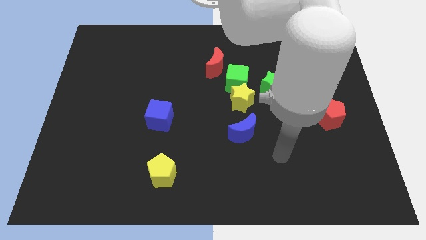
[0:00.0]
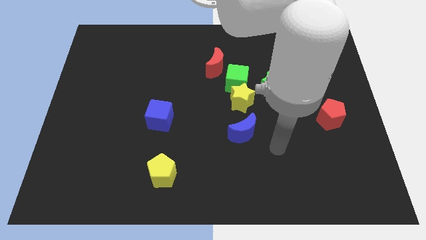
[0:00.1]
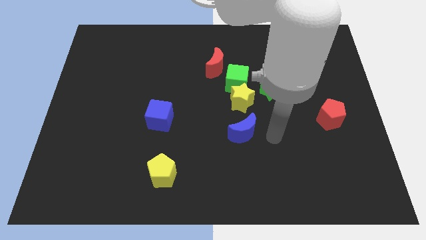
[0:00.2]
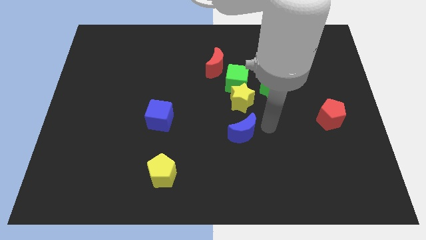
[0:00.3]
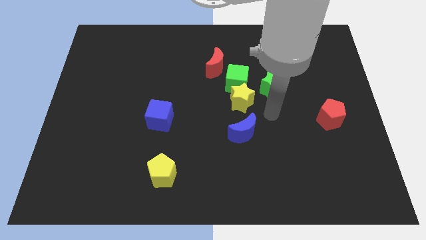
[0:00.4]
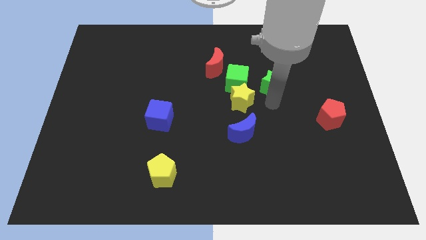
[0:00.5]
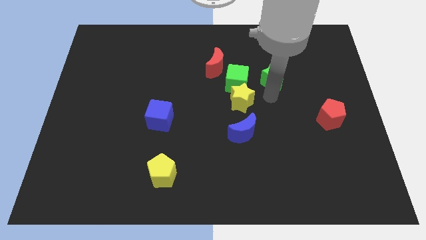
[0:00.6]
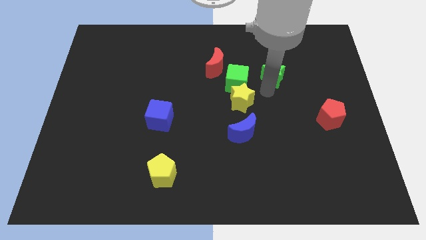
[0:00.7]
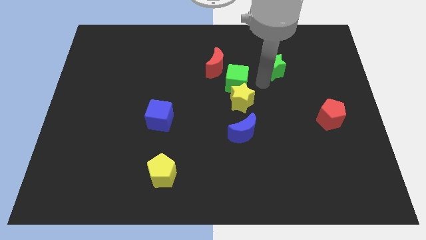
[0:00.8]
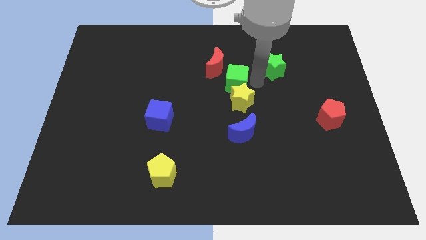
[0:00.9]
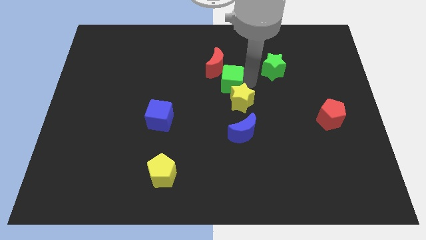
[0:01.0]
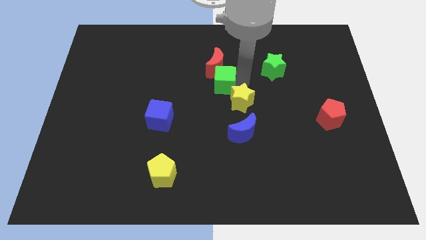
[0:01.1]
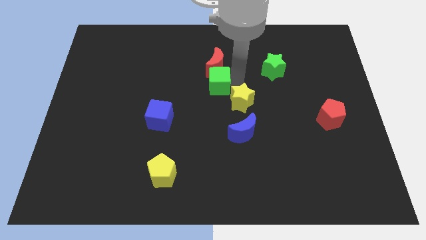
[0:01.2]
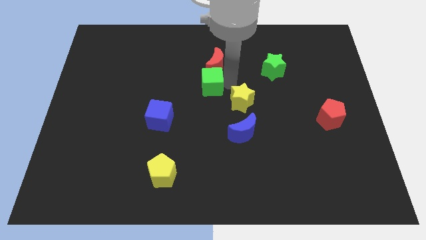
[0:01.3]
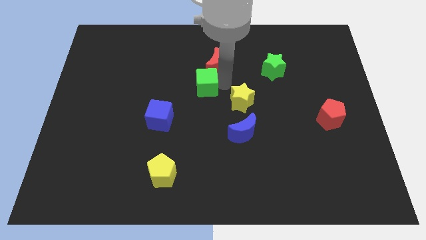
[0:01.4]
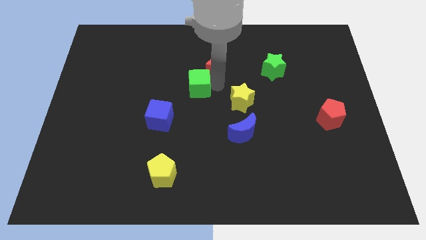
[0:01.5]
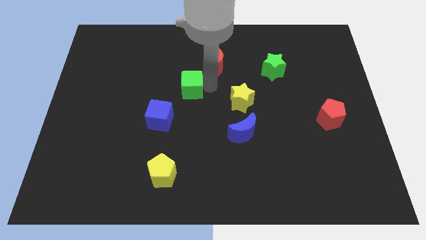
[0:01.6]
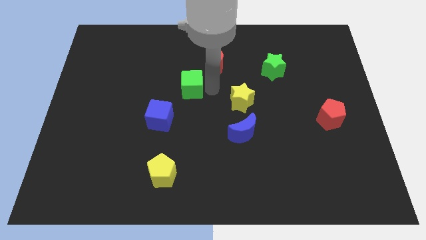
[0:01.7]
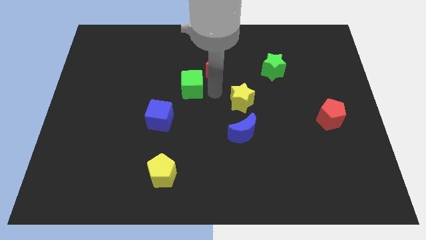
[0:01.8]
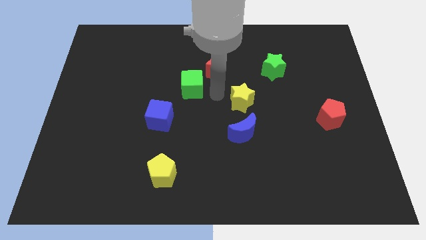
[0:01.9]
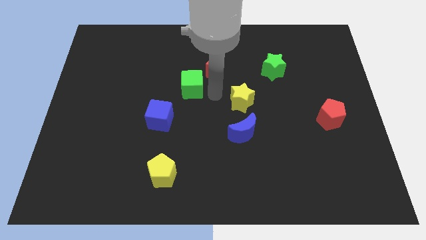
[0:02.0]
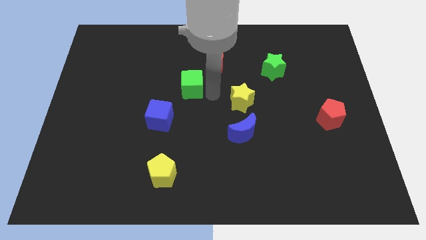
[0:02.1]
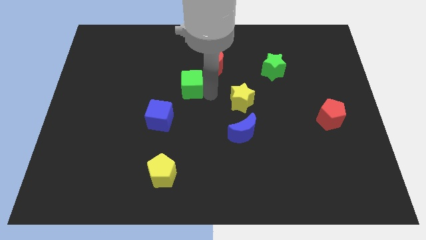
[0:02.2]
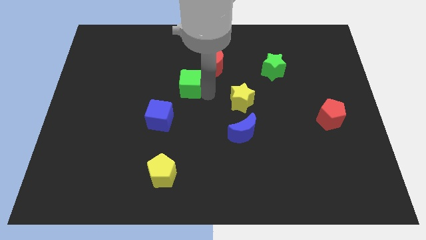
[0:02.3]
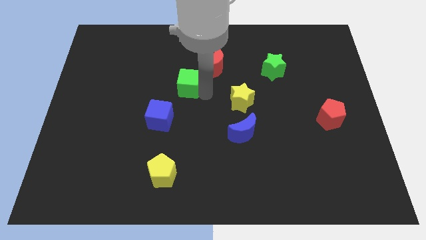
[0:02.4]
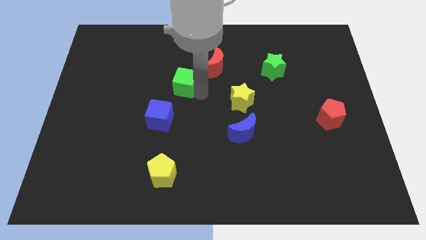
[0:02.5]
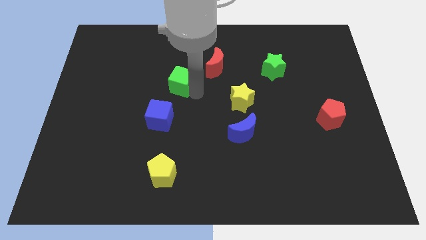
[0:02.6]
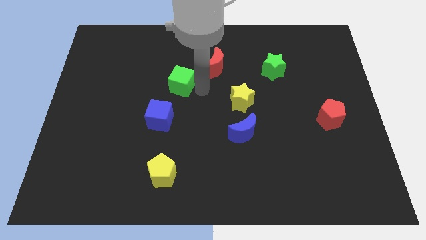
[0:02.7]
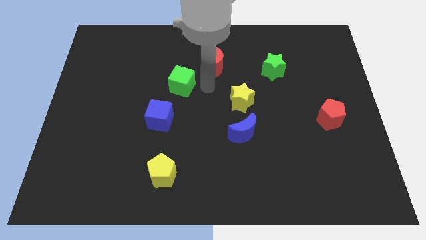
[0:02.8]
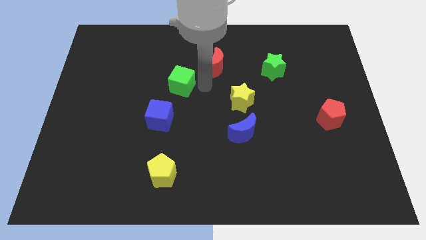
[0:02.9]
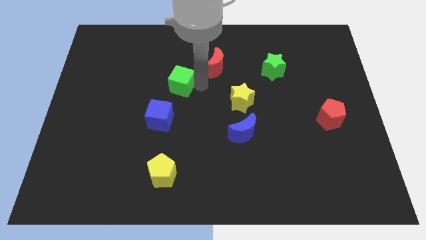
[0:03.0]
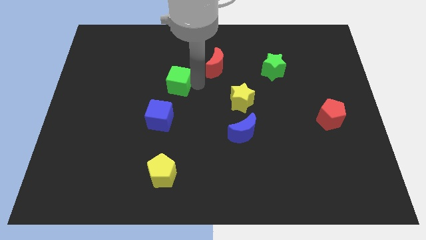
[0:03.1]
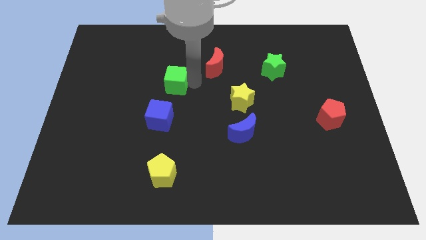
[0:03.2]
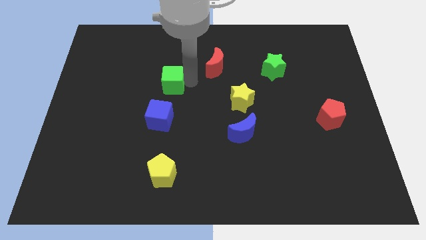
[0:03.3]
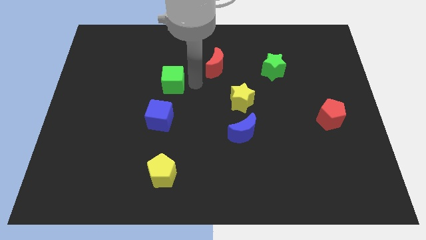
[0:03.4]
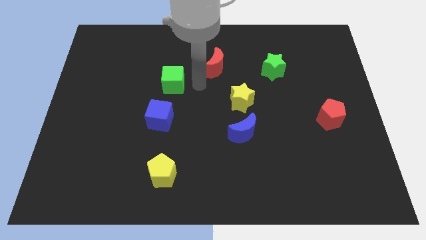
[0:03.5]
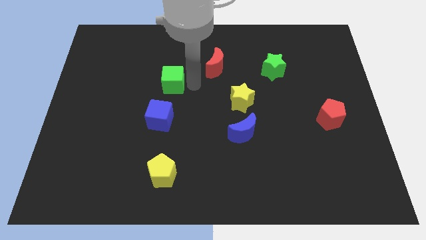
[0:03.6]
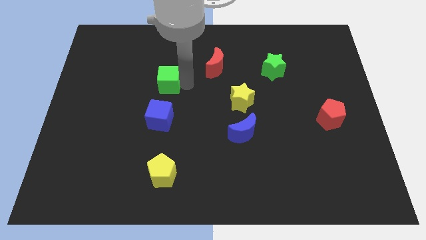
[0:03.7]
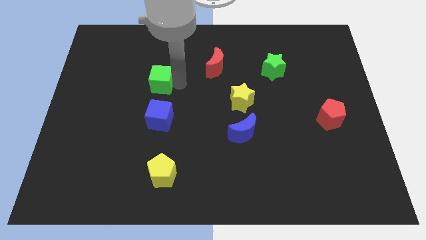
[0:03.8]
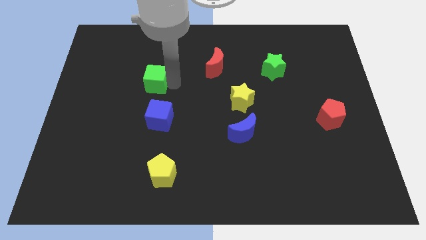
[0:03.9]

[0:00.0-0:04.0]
push the green cube left

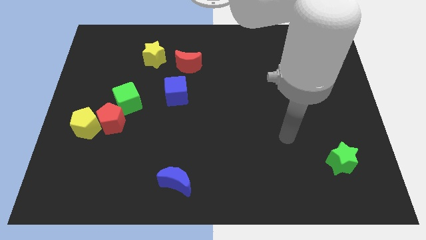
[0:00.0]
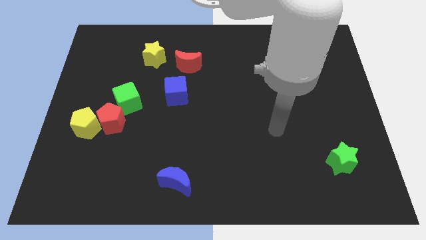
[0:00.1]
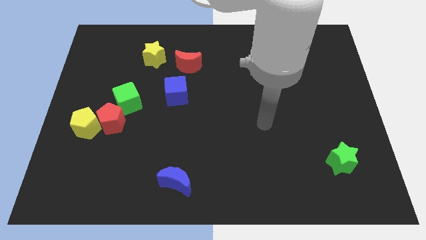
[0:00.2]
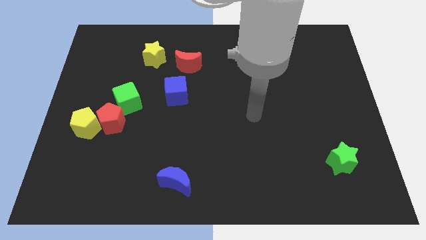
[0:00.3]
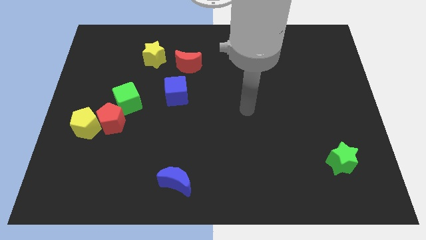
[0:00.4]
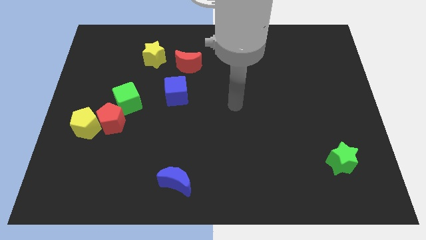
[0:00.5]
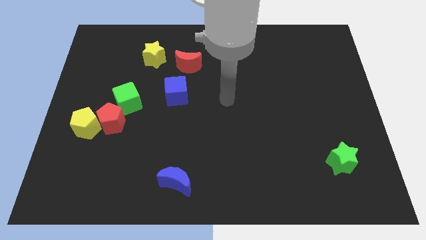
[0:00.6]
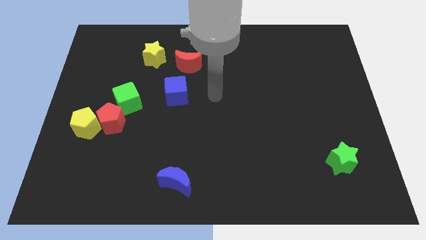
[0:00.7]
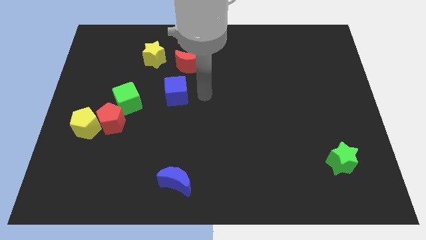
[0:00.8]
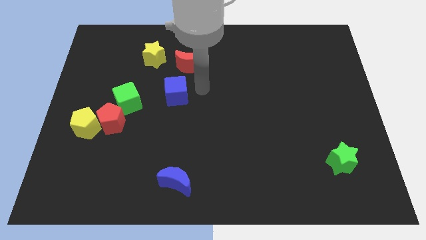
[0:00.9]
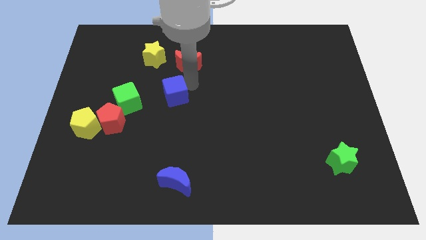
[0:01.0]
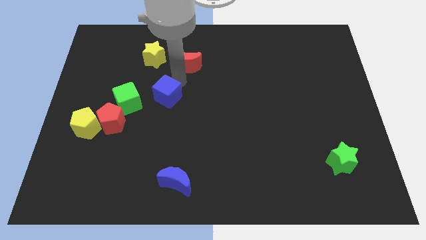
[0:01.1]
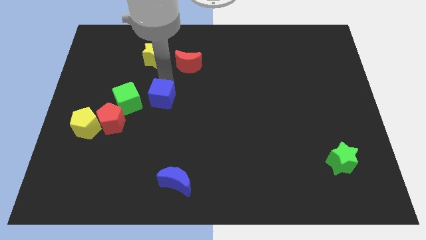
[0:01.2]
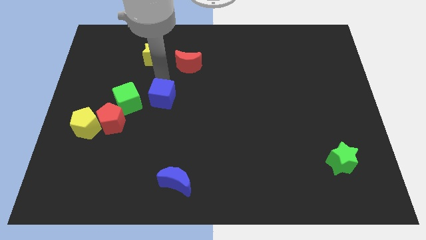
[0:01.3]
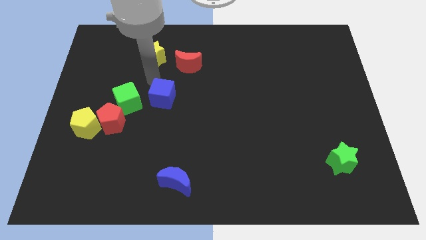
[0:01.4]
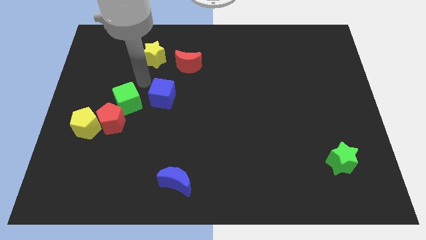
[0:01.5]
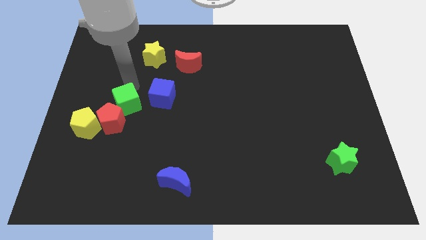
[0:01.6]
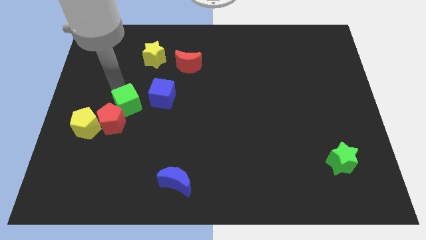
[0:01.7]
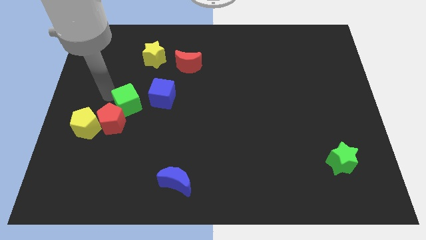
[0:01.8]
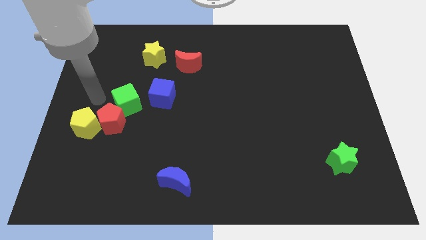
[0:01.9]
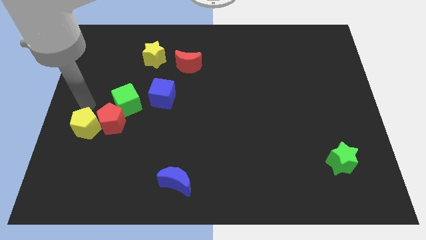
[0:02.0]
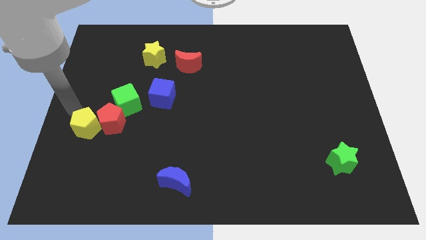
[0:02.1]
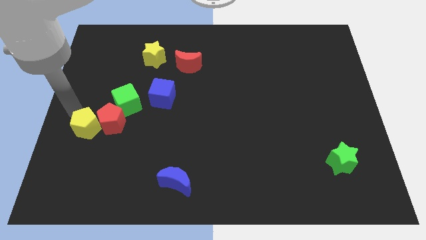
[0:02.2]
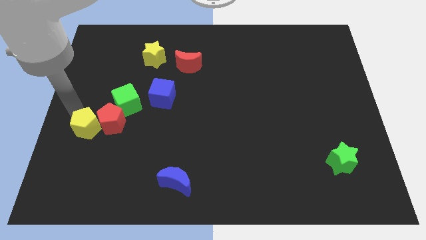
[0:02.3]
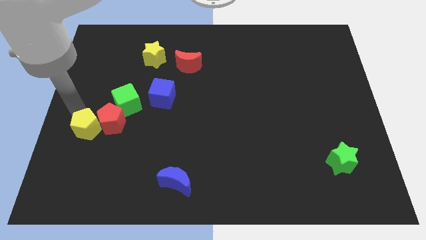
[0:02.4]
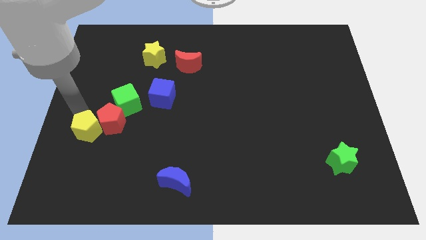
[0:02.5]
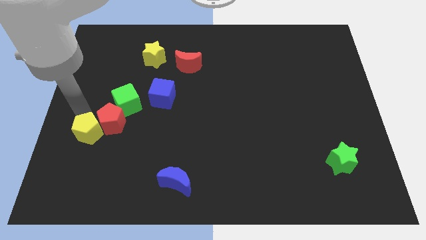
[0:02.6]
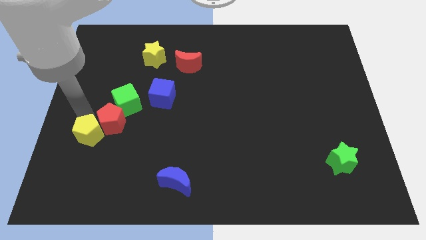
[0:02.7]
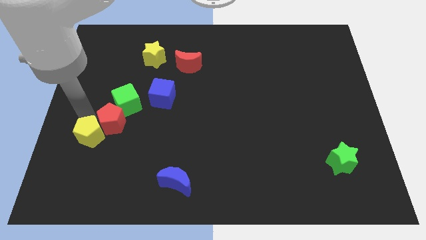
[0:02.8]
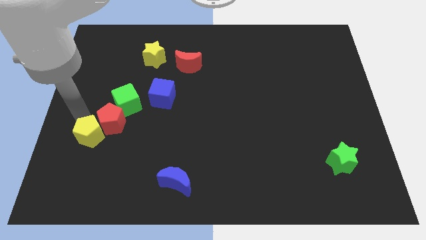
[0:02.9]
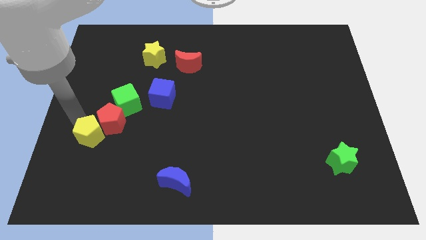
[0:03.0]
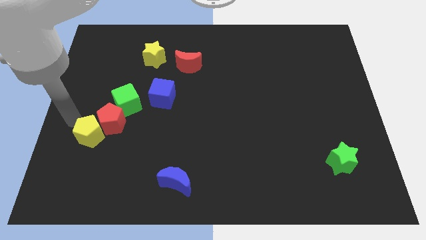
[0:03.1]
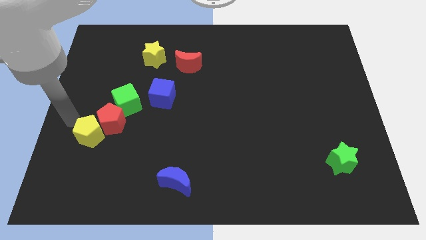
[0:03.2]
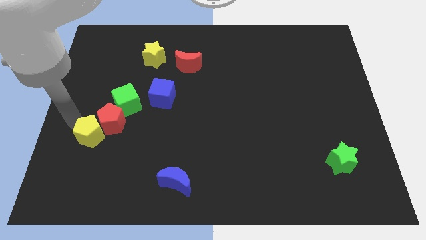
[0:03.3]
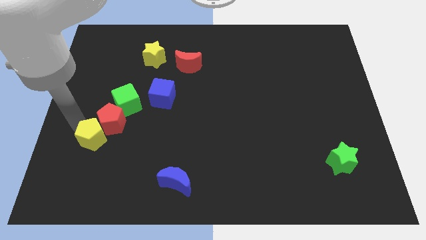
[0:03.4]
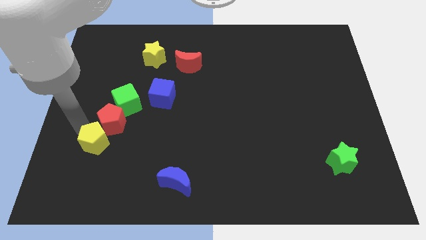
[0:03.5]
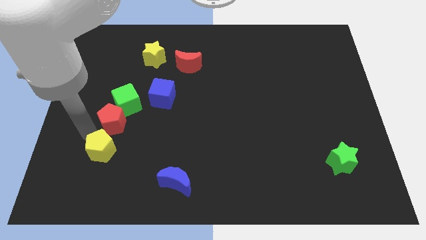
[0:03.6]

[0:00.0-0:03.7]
slightly push the yellow pentagon downwards and right diagonally

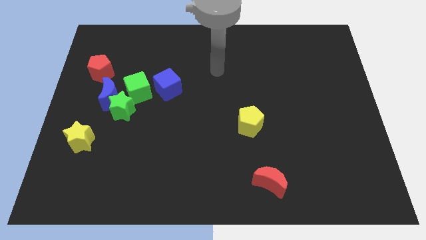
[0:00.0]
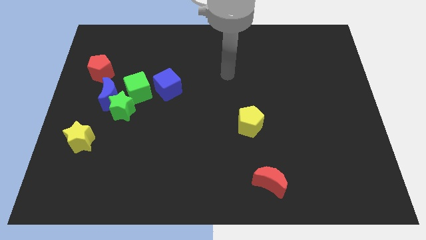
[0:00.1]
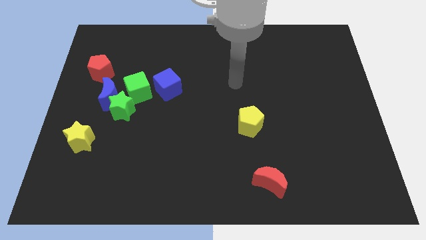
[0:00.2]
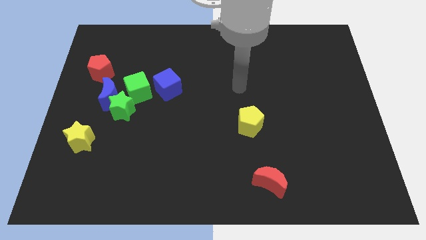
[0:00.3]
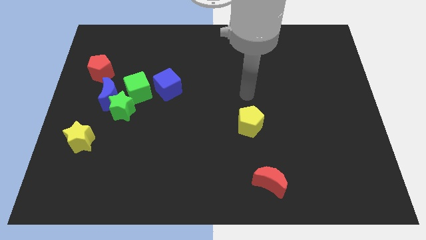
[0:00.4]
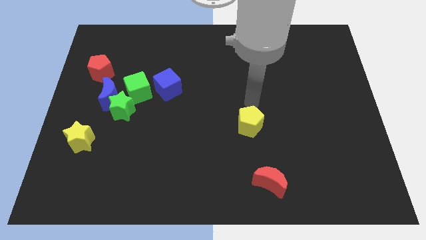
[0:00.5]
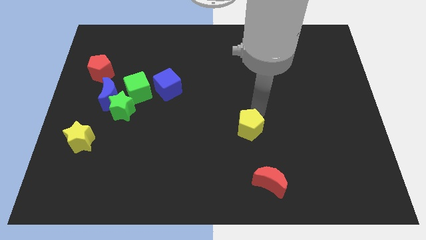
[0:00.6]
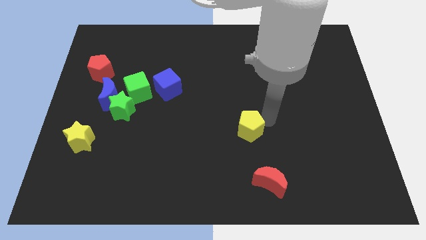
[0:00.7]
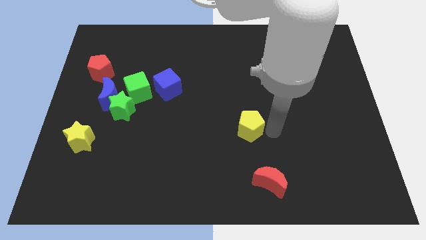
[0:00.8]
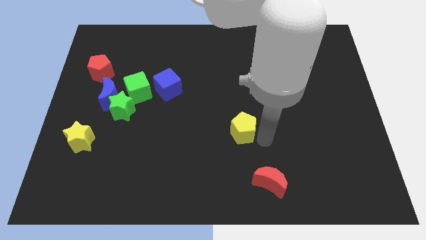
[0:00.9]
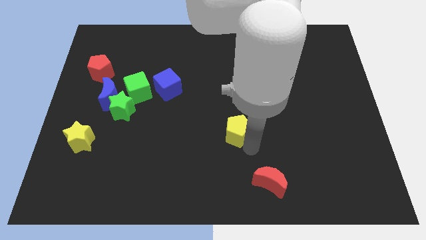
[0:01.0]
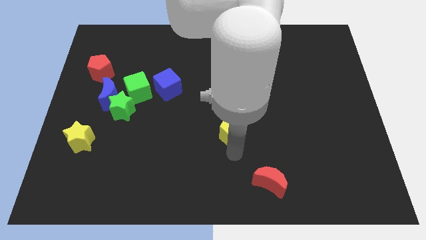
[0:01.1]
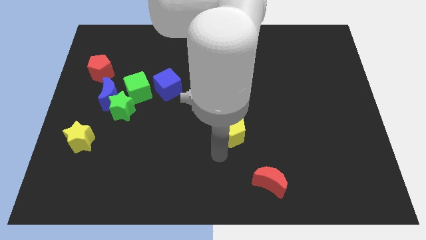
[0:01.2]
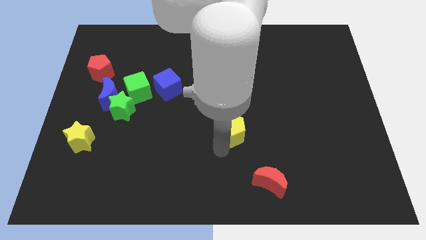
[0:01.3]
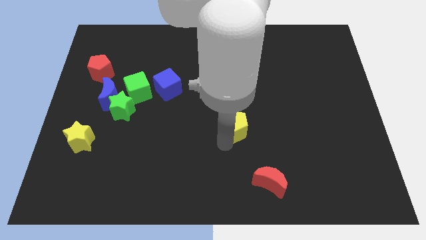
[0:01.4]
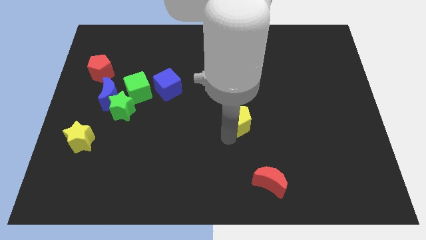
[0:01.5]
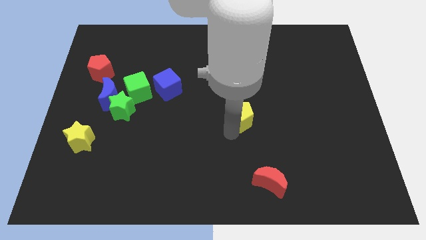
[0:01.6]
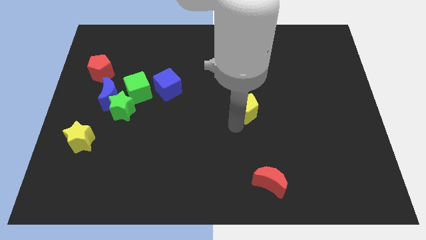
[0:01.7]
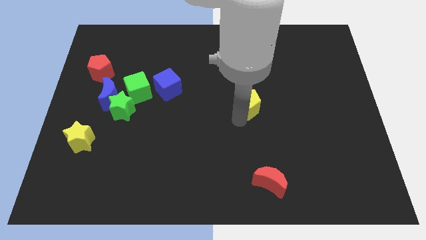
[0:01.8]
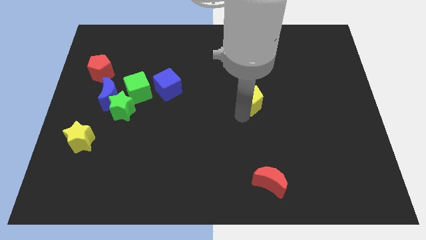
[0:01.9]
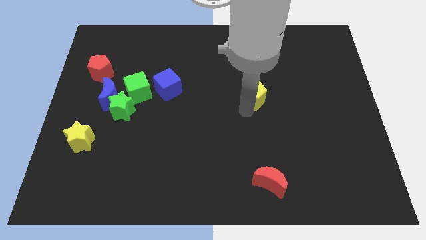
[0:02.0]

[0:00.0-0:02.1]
slide the yellow pentagon upwards slightly
